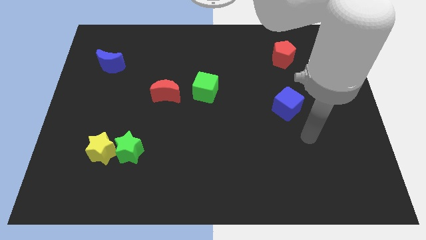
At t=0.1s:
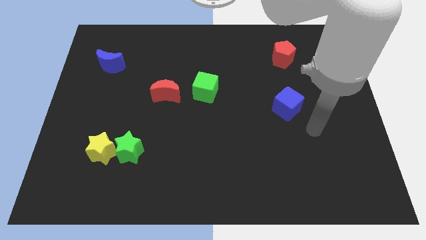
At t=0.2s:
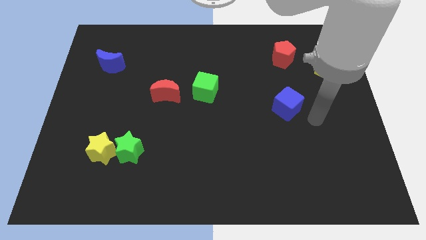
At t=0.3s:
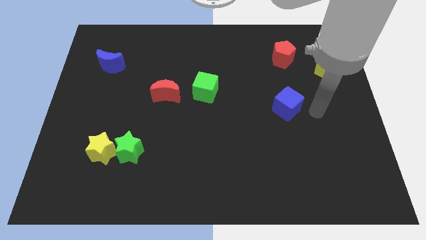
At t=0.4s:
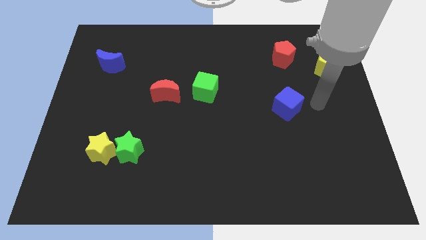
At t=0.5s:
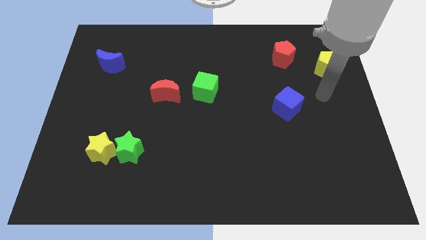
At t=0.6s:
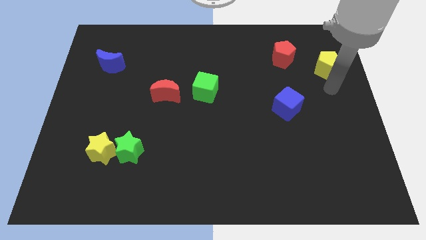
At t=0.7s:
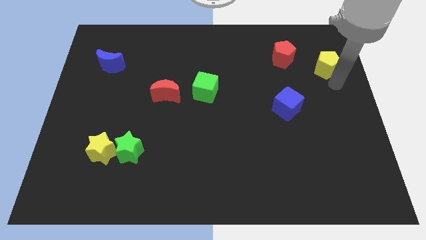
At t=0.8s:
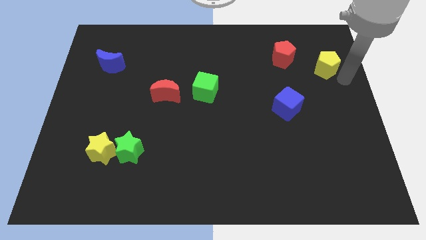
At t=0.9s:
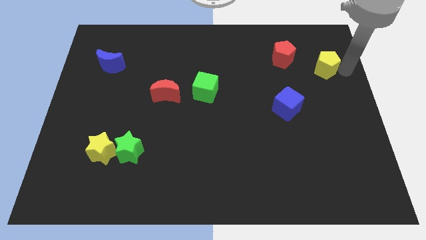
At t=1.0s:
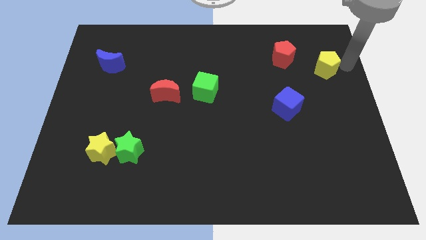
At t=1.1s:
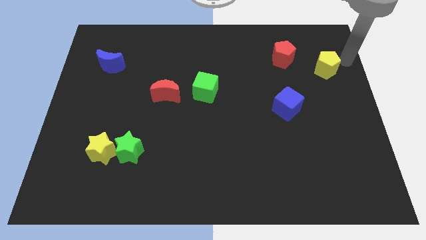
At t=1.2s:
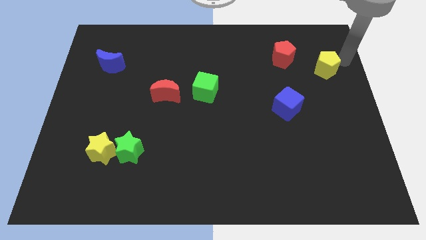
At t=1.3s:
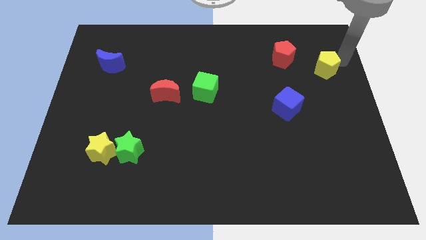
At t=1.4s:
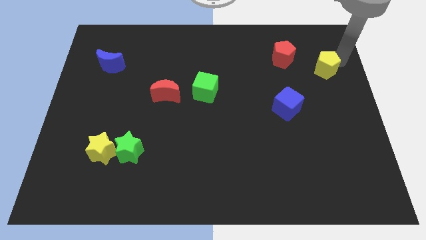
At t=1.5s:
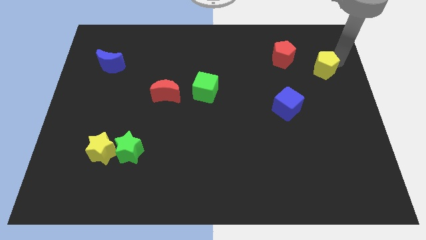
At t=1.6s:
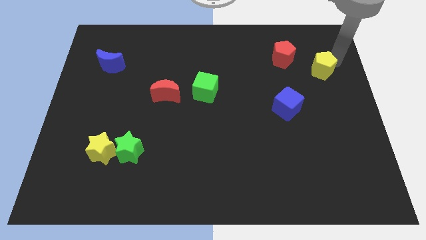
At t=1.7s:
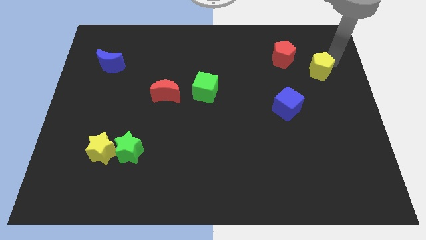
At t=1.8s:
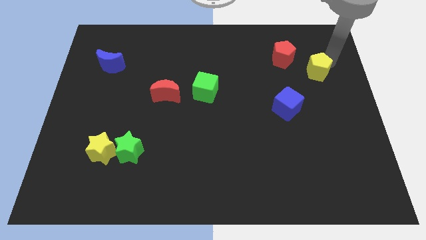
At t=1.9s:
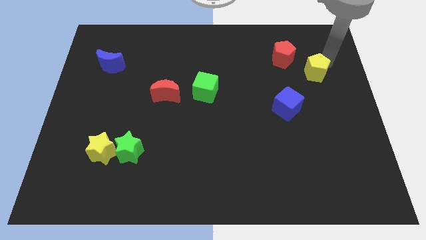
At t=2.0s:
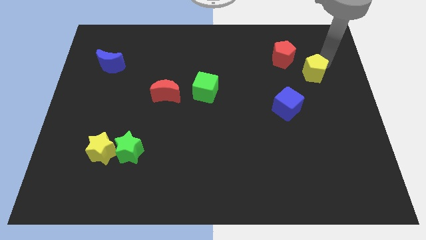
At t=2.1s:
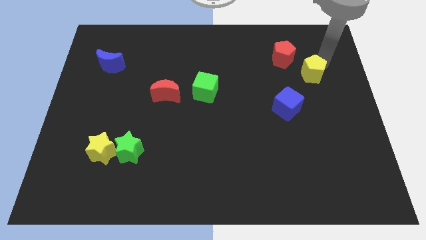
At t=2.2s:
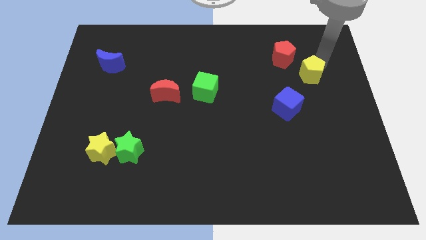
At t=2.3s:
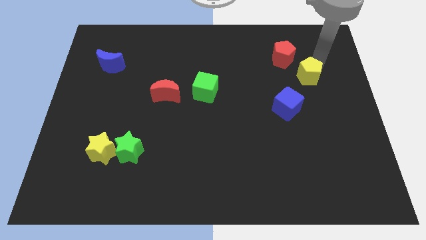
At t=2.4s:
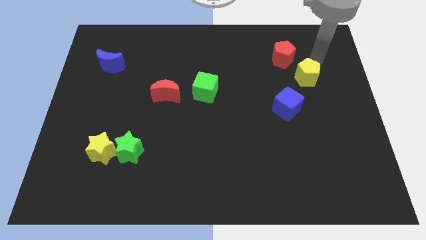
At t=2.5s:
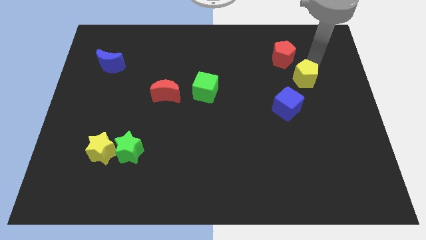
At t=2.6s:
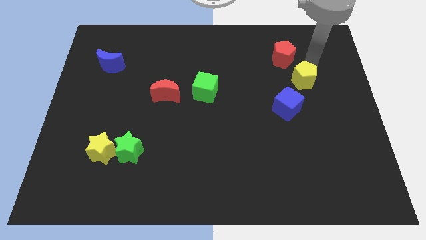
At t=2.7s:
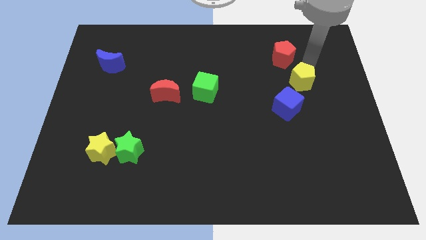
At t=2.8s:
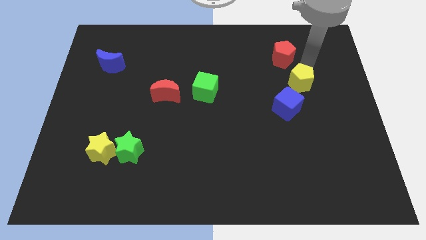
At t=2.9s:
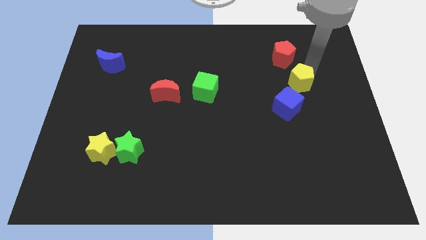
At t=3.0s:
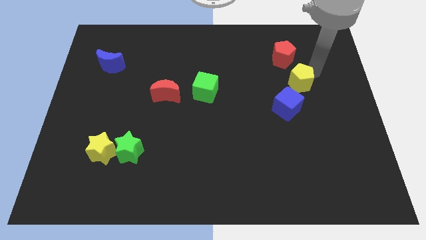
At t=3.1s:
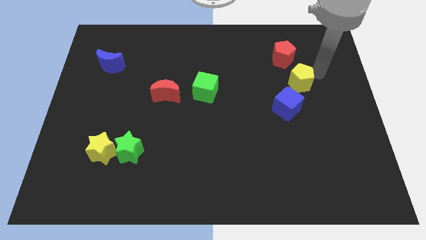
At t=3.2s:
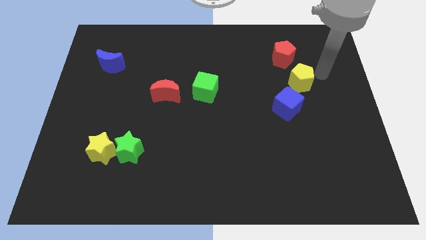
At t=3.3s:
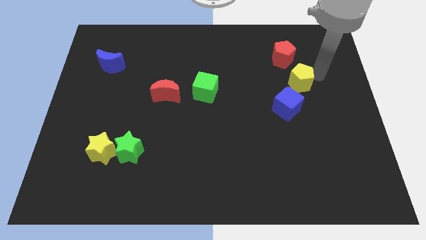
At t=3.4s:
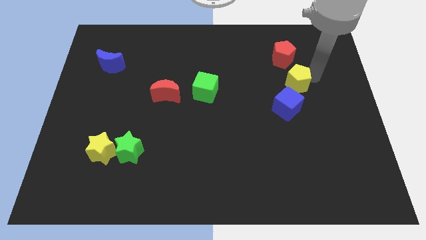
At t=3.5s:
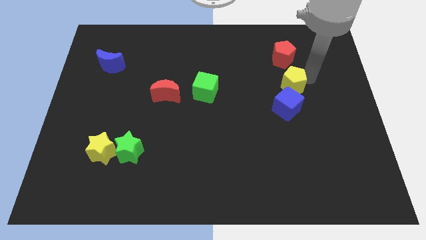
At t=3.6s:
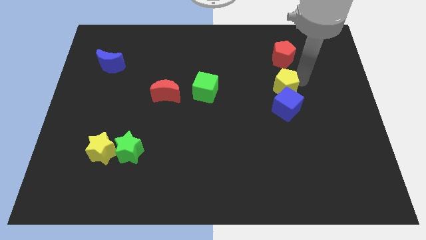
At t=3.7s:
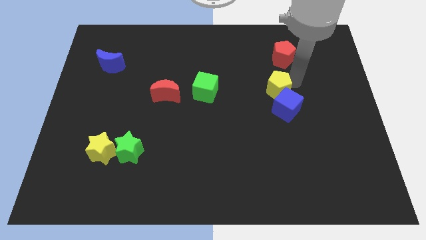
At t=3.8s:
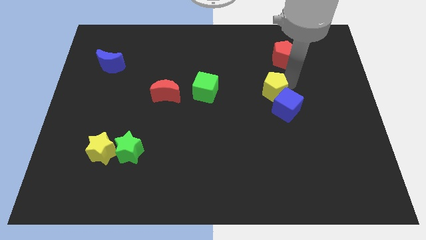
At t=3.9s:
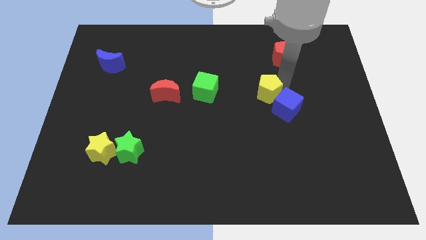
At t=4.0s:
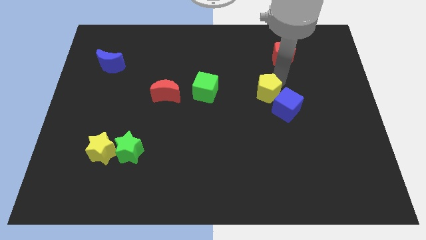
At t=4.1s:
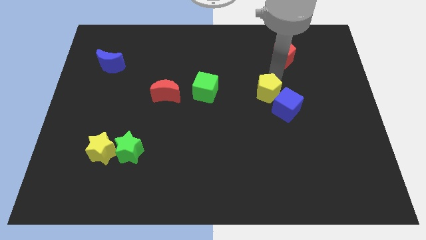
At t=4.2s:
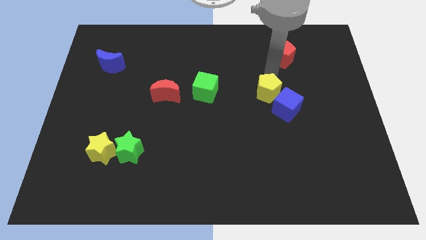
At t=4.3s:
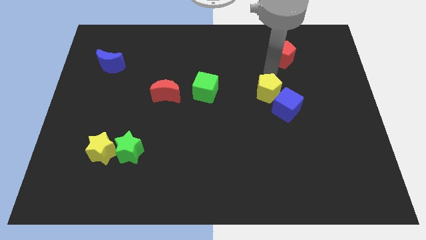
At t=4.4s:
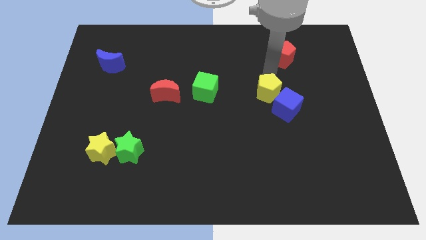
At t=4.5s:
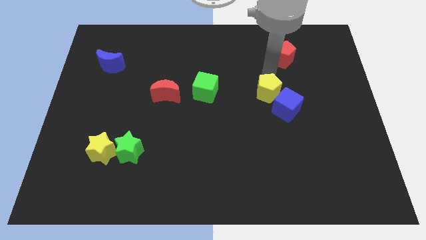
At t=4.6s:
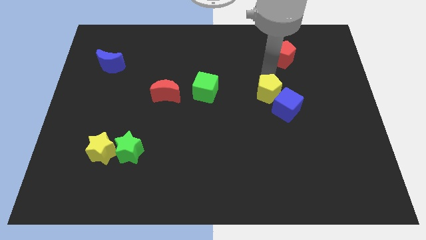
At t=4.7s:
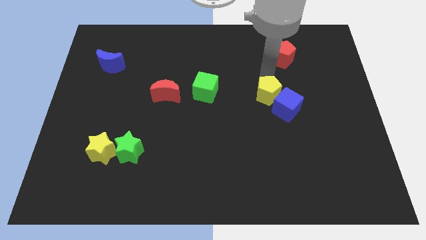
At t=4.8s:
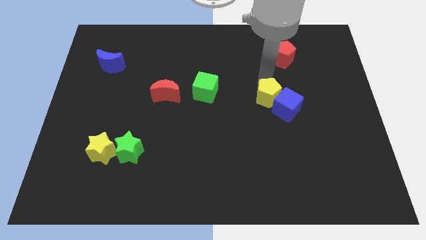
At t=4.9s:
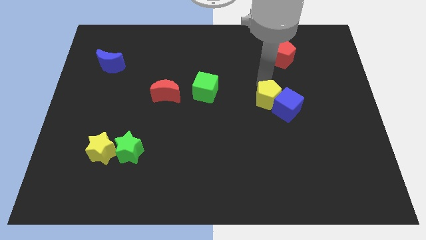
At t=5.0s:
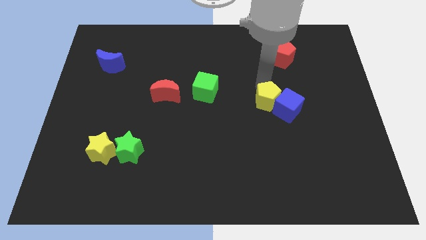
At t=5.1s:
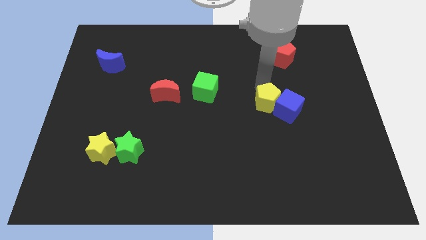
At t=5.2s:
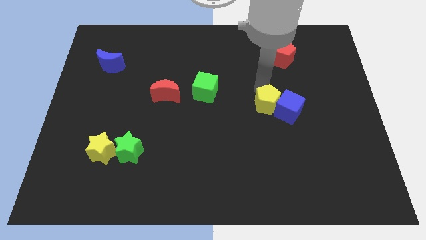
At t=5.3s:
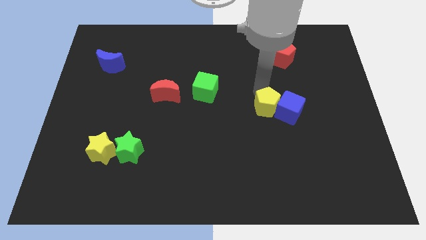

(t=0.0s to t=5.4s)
put the yellow pentagon to the bottom left side of the blue cube
